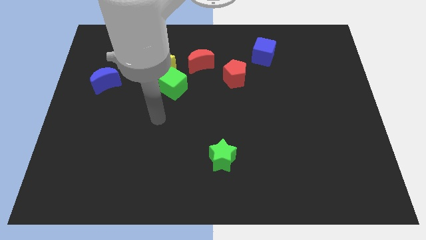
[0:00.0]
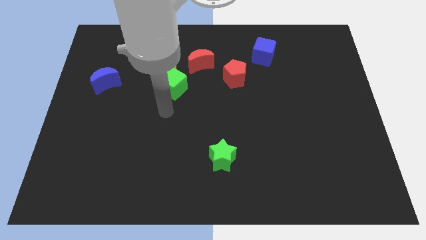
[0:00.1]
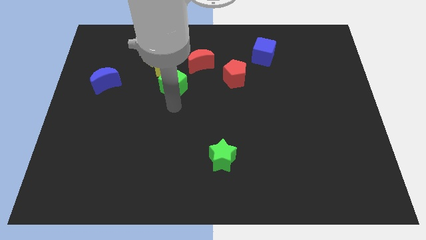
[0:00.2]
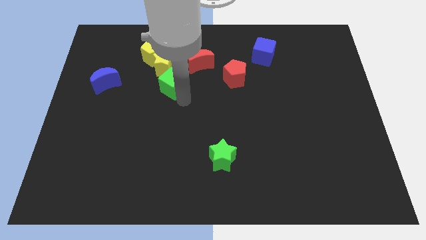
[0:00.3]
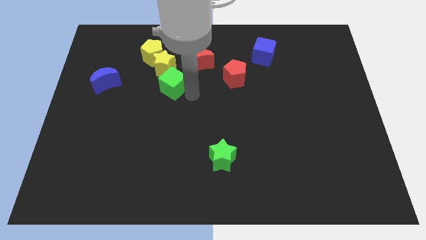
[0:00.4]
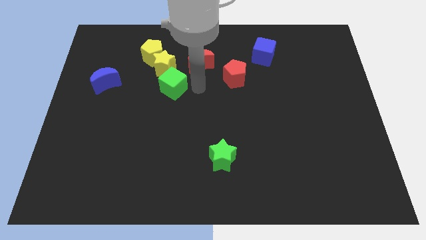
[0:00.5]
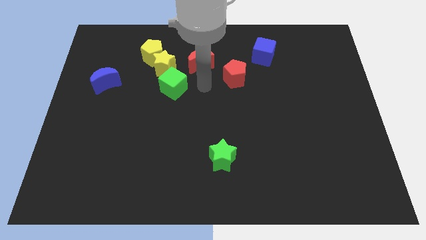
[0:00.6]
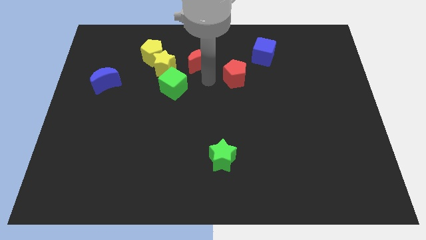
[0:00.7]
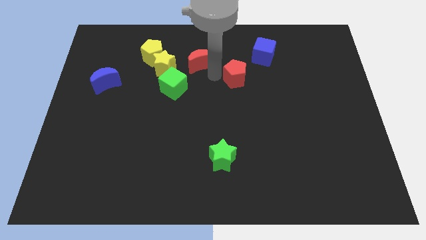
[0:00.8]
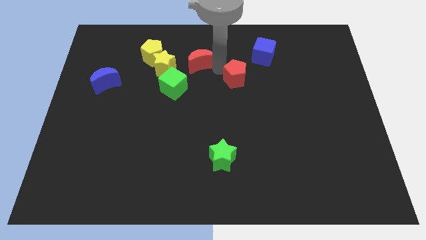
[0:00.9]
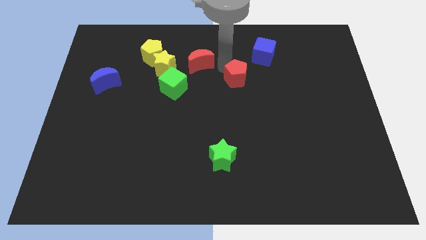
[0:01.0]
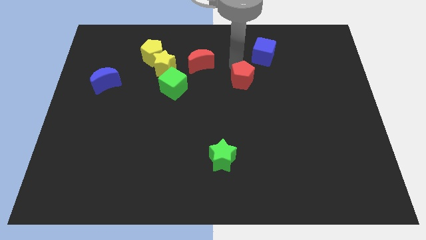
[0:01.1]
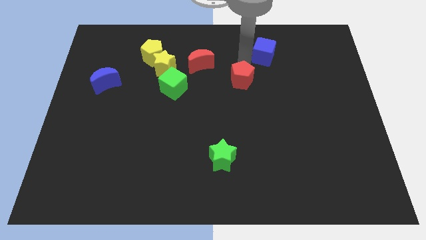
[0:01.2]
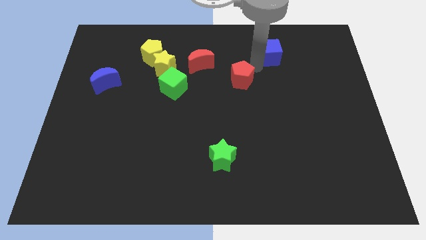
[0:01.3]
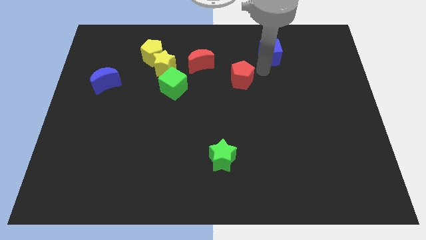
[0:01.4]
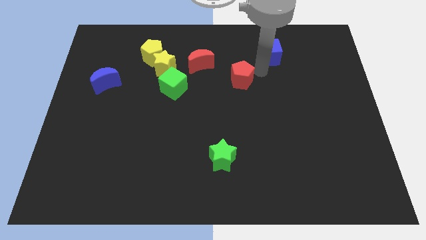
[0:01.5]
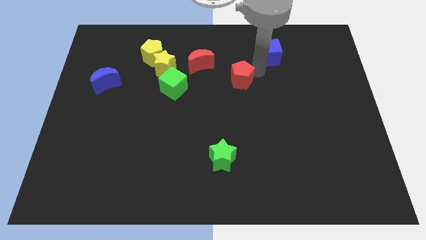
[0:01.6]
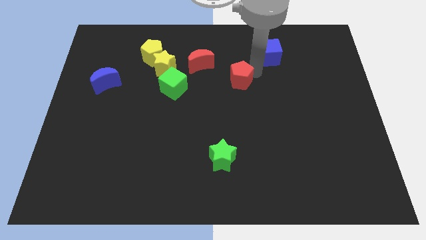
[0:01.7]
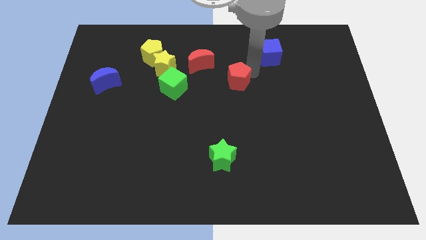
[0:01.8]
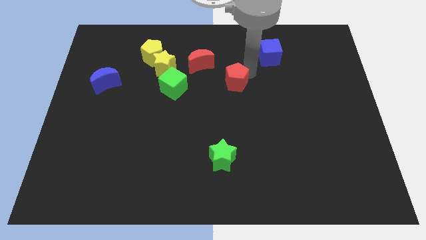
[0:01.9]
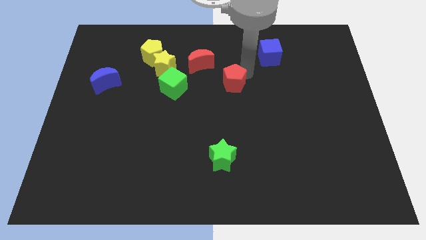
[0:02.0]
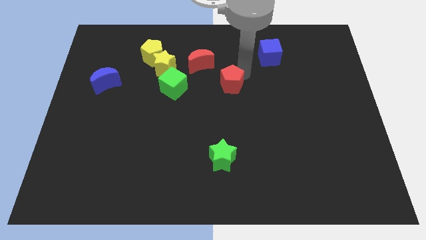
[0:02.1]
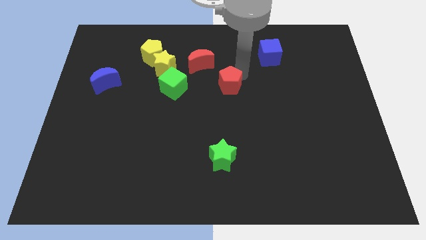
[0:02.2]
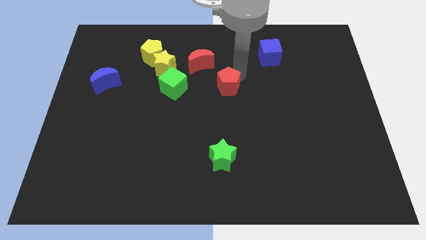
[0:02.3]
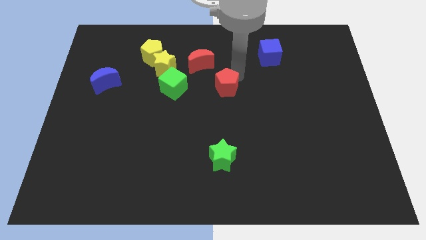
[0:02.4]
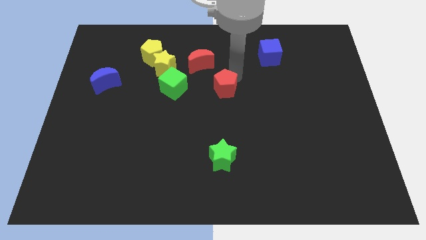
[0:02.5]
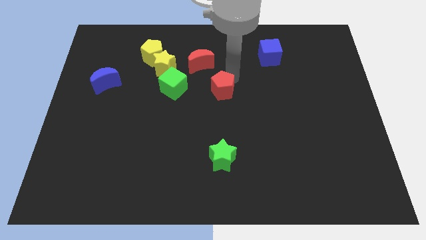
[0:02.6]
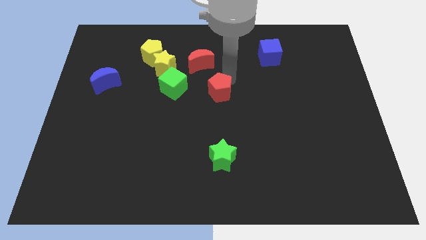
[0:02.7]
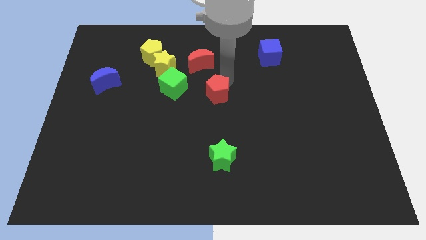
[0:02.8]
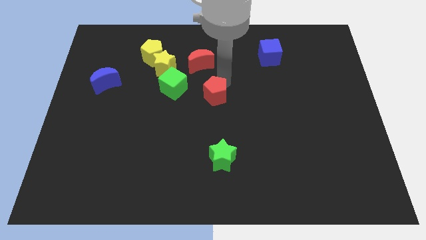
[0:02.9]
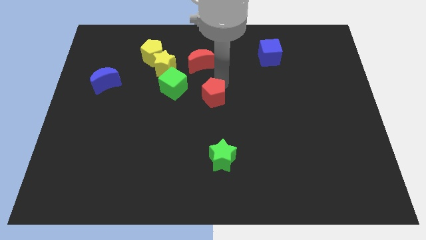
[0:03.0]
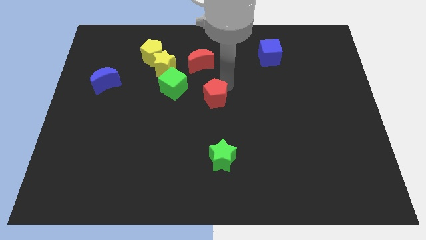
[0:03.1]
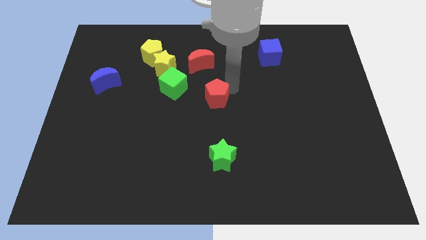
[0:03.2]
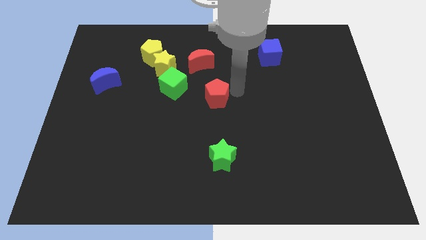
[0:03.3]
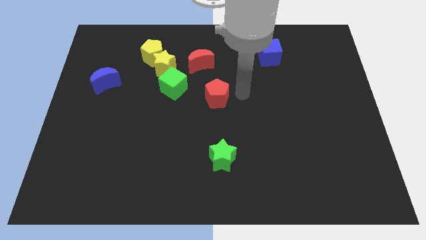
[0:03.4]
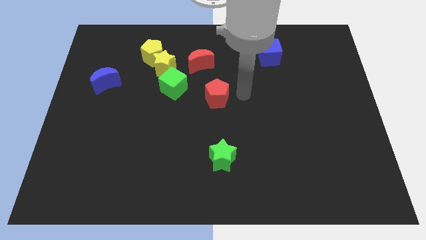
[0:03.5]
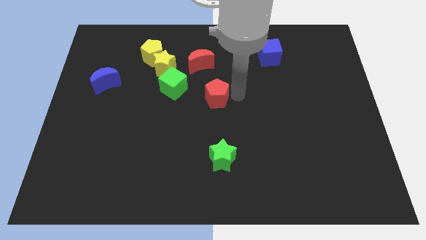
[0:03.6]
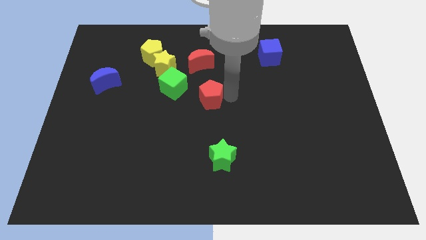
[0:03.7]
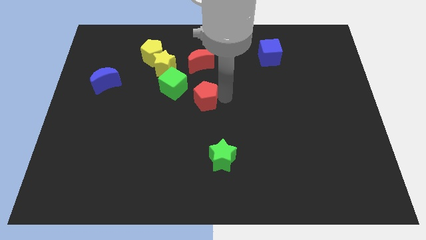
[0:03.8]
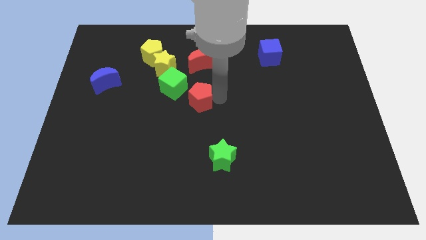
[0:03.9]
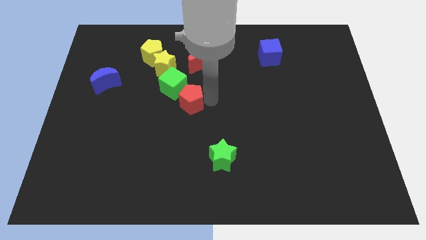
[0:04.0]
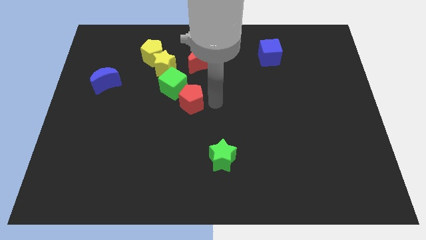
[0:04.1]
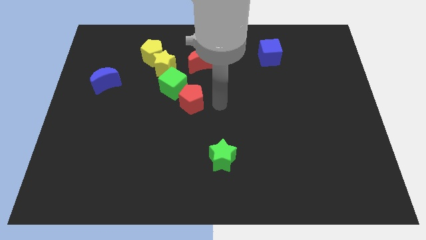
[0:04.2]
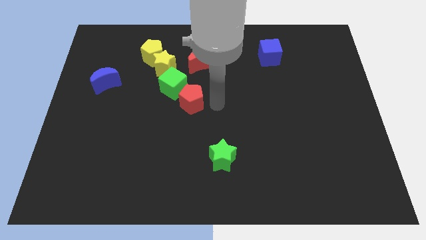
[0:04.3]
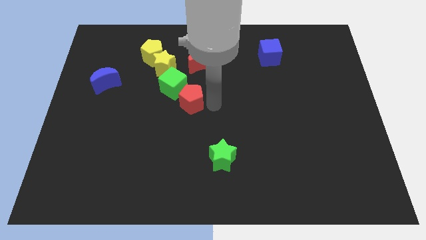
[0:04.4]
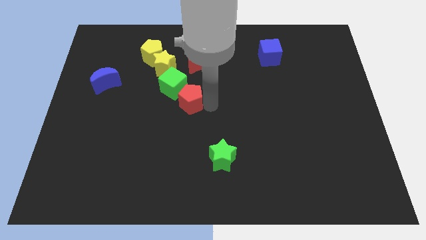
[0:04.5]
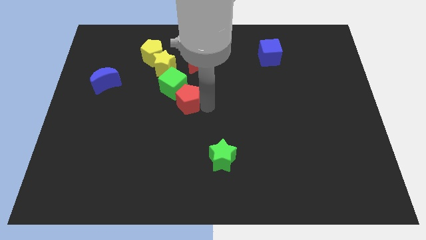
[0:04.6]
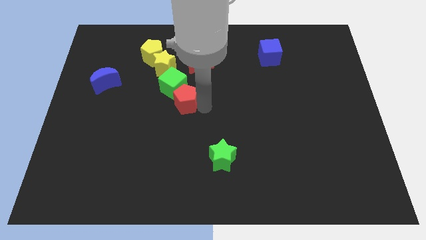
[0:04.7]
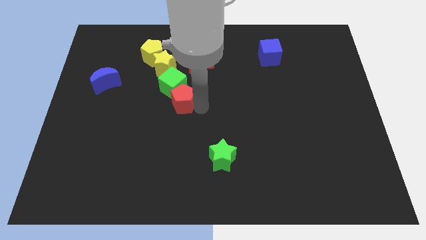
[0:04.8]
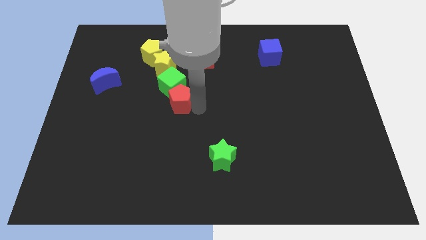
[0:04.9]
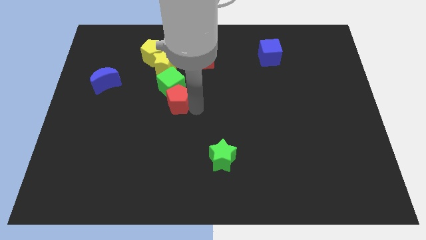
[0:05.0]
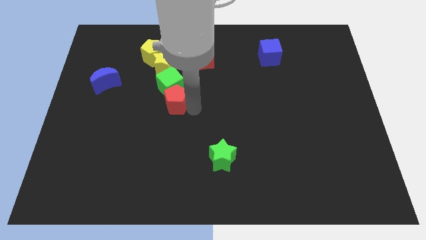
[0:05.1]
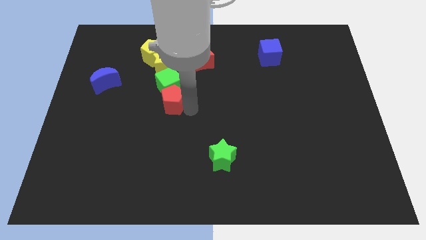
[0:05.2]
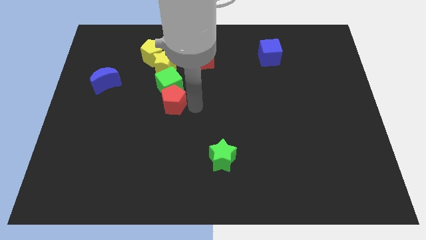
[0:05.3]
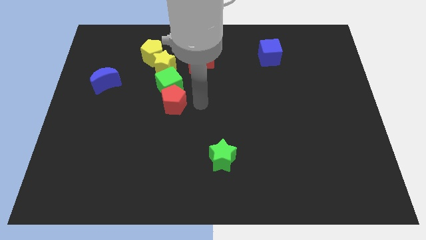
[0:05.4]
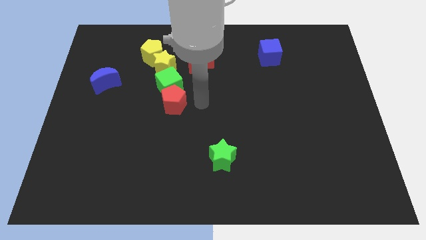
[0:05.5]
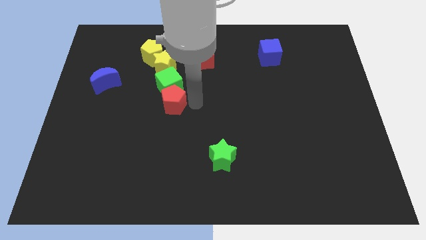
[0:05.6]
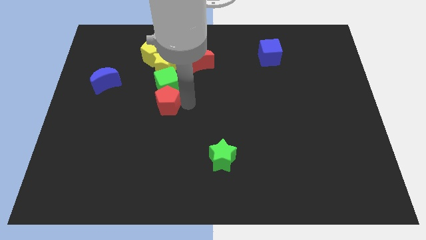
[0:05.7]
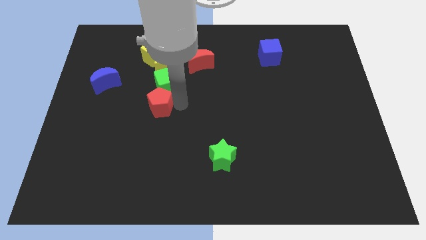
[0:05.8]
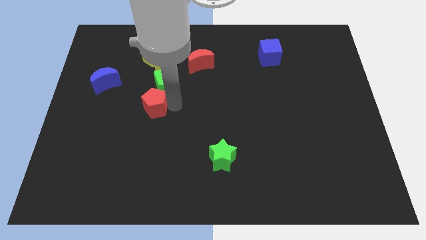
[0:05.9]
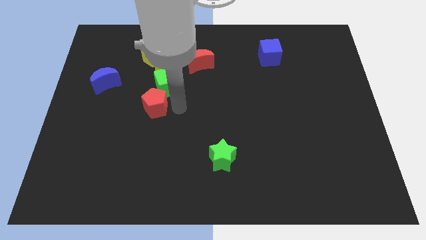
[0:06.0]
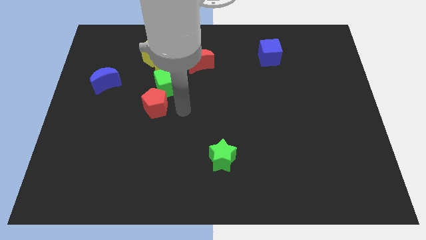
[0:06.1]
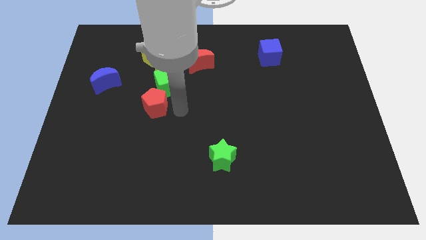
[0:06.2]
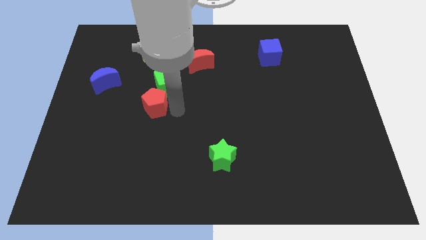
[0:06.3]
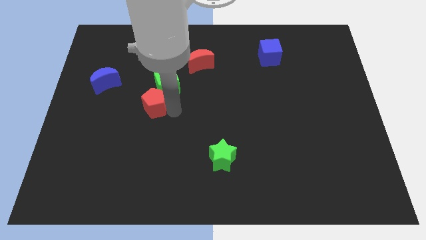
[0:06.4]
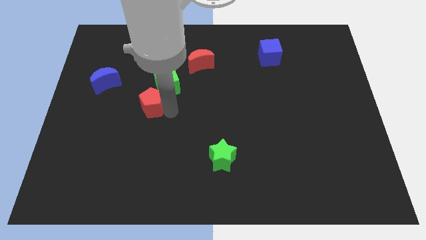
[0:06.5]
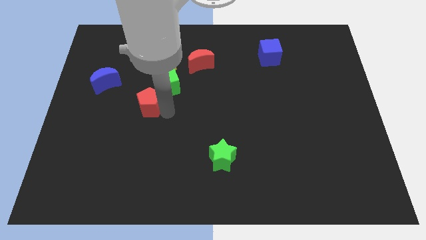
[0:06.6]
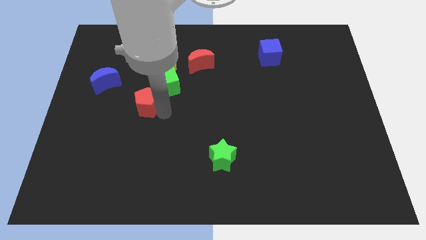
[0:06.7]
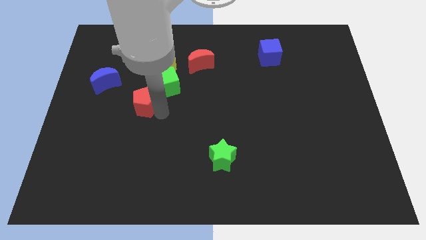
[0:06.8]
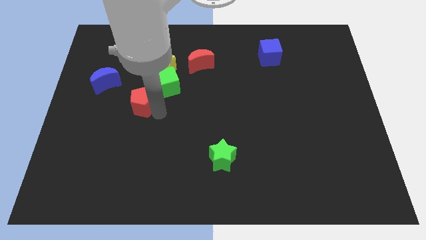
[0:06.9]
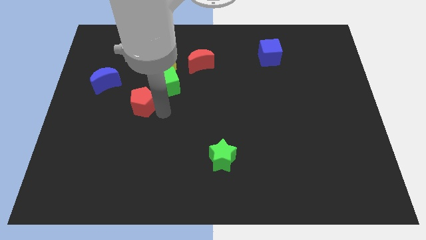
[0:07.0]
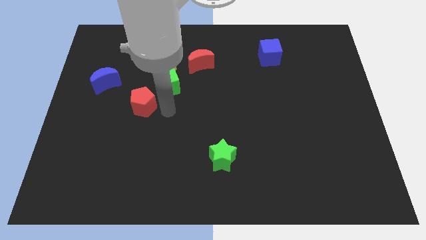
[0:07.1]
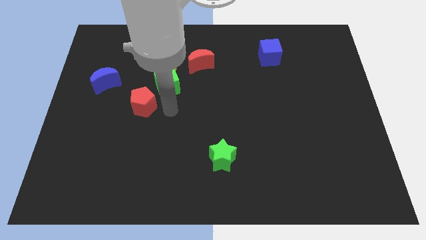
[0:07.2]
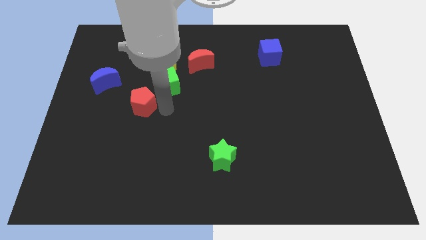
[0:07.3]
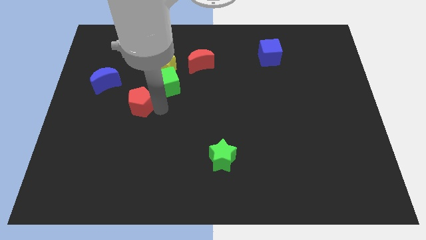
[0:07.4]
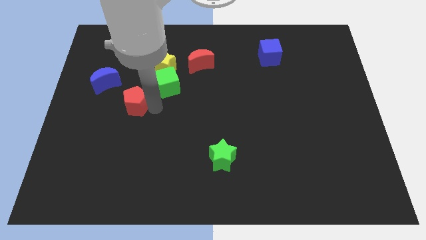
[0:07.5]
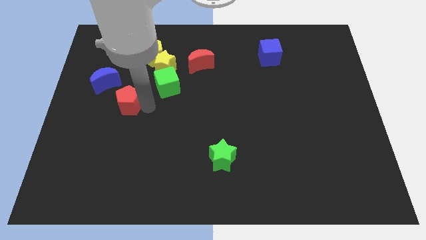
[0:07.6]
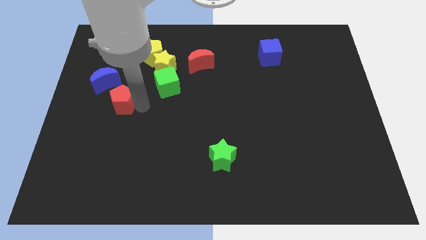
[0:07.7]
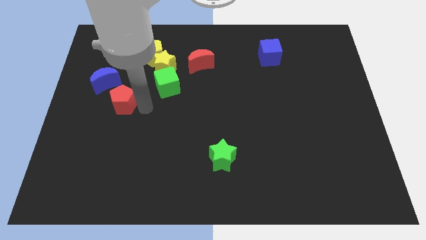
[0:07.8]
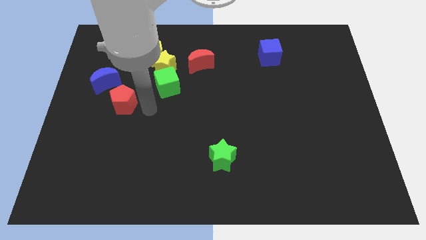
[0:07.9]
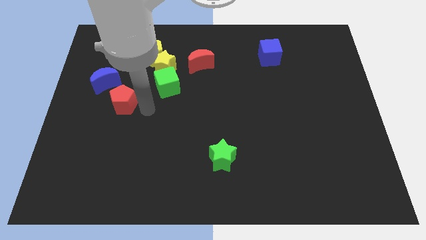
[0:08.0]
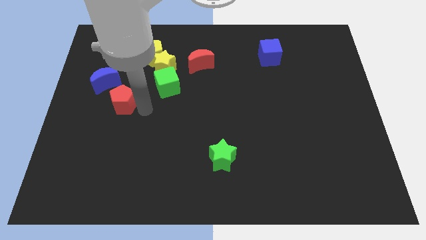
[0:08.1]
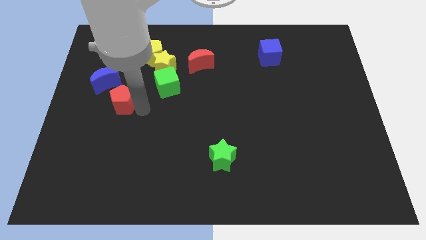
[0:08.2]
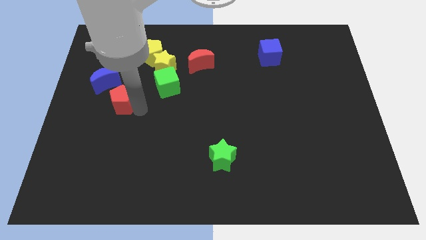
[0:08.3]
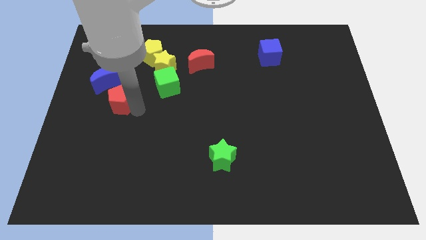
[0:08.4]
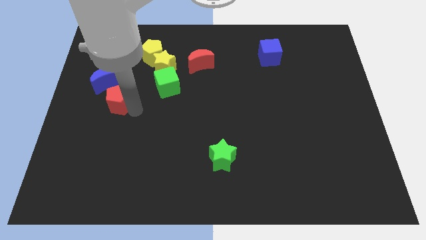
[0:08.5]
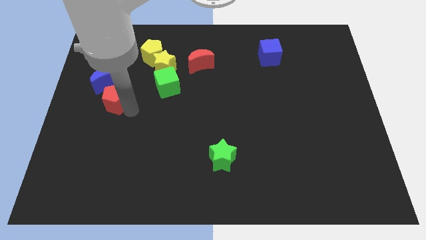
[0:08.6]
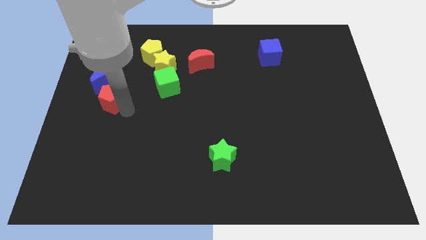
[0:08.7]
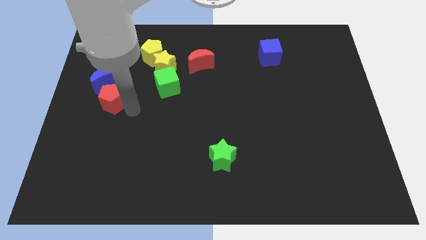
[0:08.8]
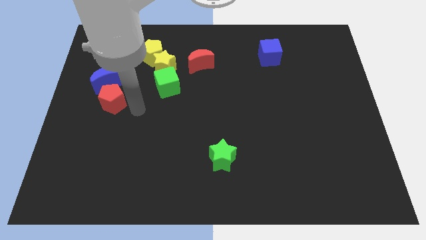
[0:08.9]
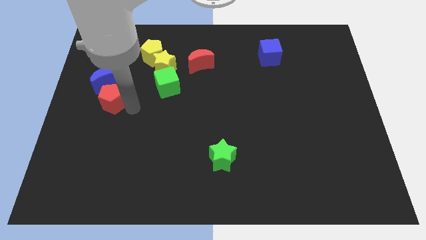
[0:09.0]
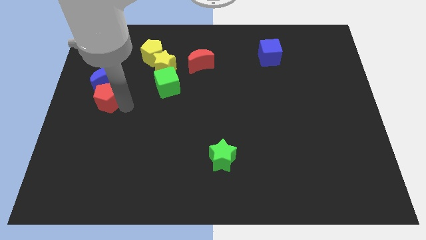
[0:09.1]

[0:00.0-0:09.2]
slide the red pentagon to the center left
